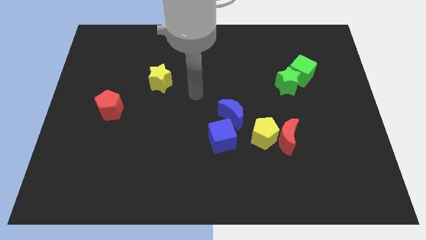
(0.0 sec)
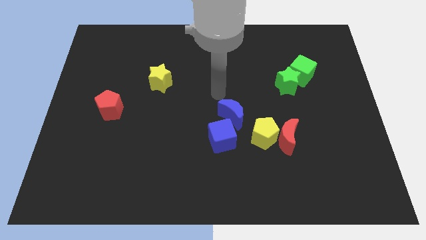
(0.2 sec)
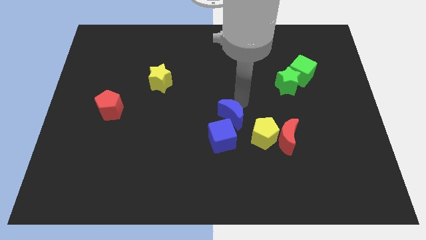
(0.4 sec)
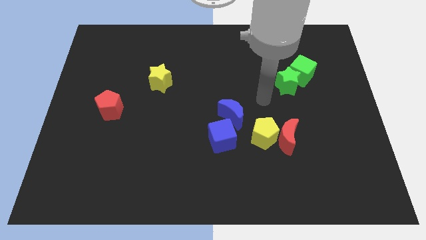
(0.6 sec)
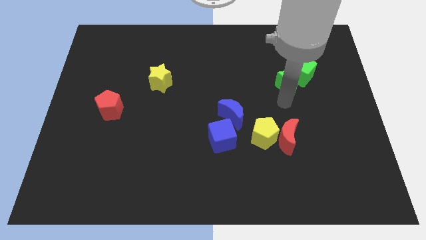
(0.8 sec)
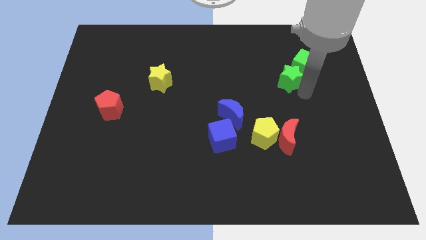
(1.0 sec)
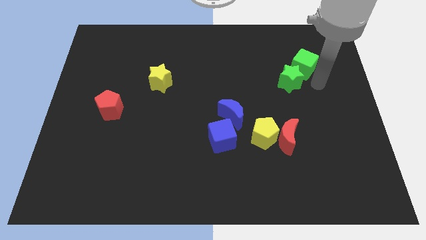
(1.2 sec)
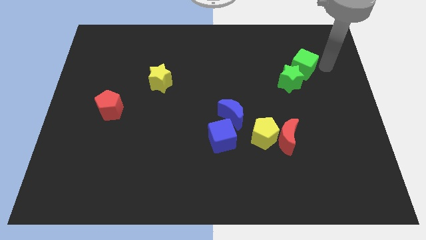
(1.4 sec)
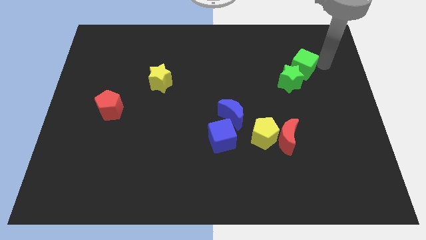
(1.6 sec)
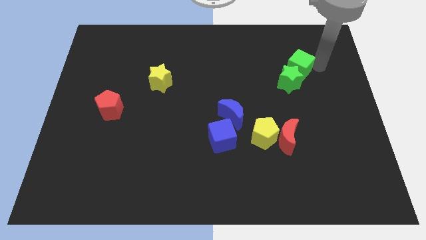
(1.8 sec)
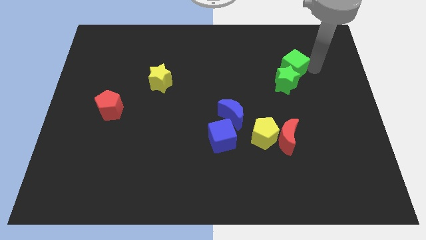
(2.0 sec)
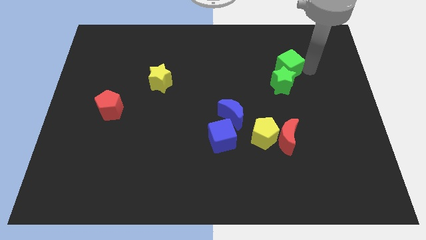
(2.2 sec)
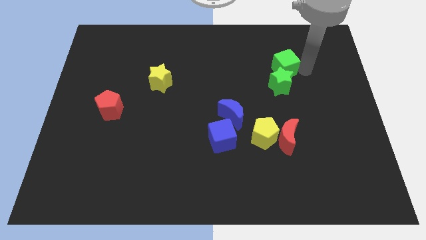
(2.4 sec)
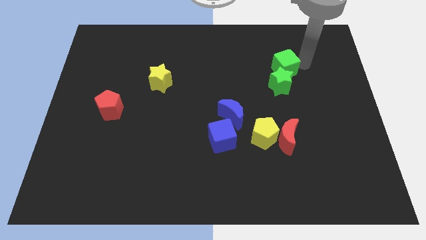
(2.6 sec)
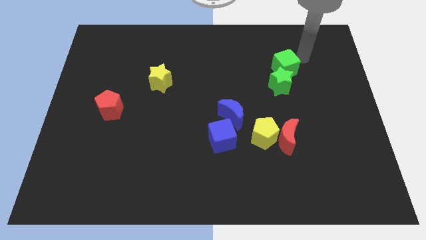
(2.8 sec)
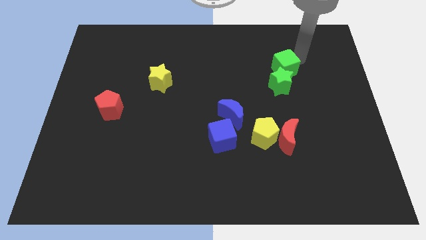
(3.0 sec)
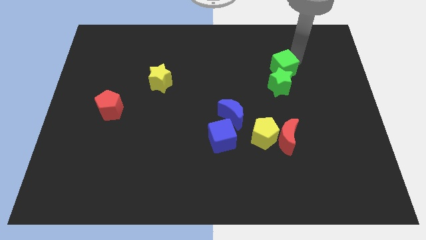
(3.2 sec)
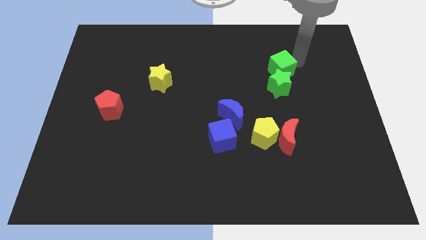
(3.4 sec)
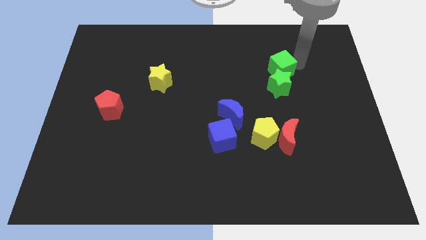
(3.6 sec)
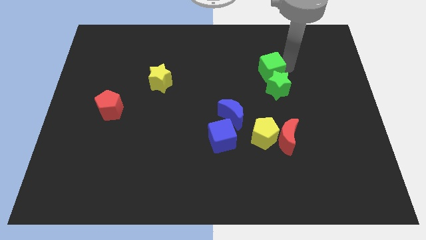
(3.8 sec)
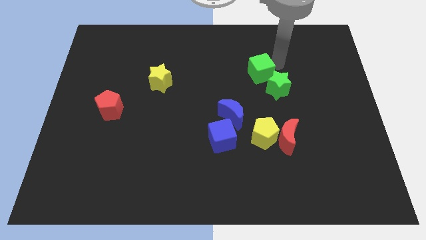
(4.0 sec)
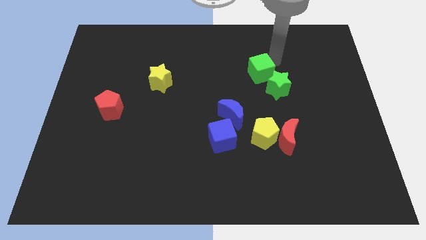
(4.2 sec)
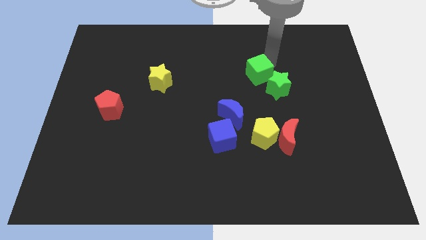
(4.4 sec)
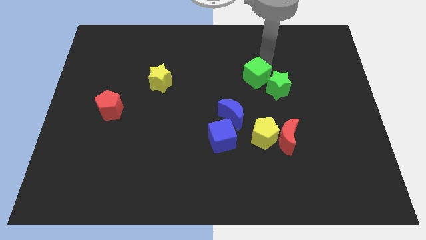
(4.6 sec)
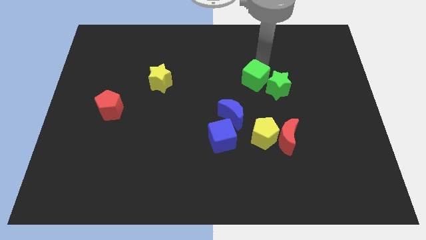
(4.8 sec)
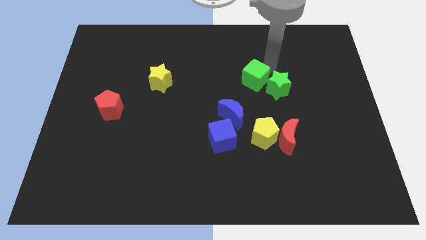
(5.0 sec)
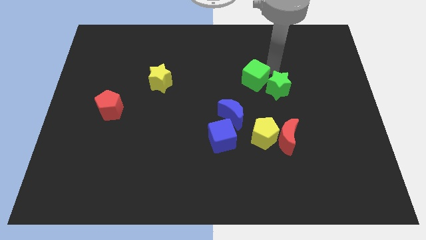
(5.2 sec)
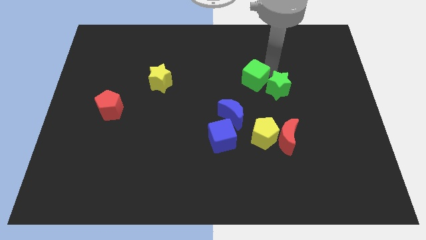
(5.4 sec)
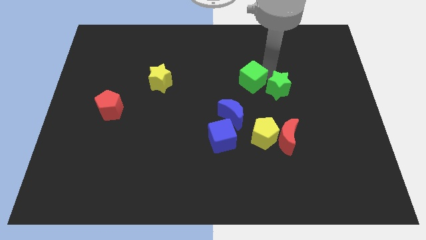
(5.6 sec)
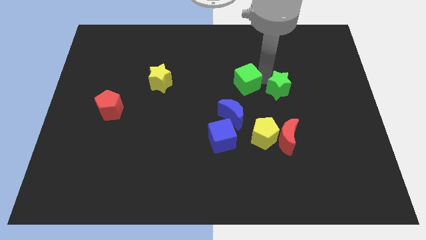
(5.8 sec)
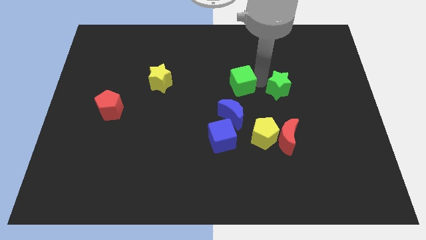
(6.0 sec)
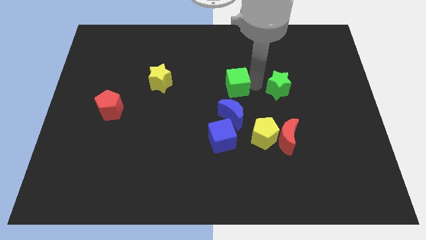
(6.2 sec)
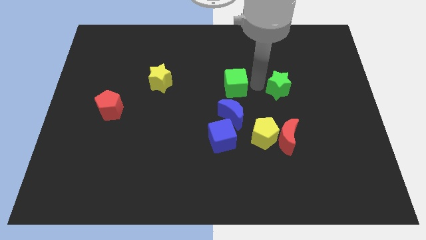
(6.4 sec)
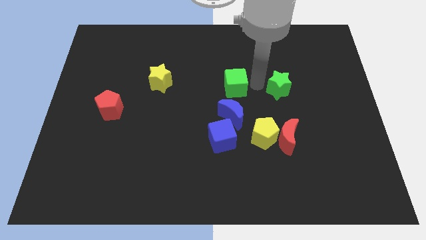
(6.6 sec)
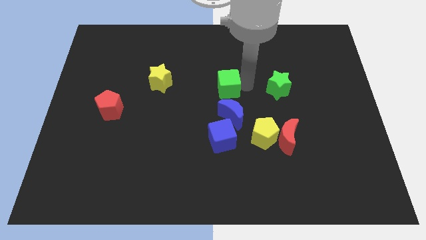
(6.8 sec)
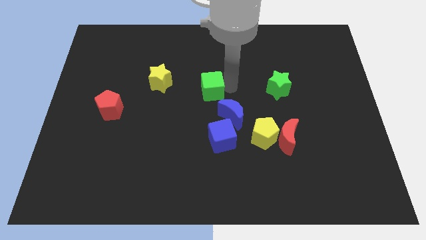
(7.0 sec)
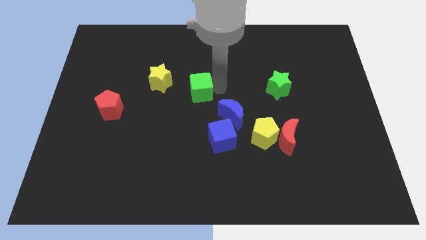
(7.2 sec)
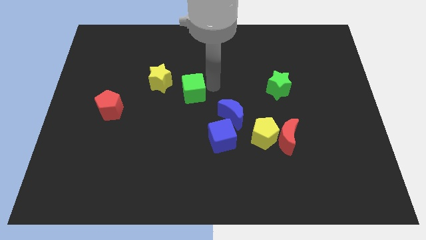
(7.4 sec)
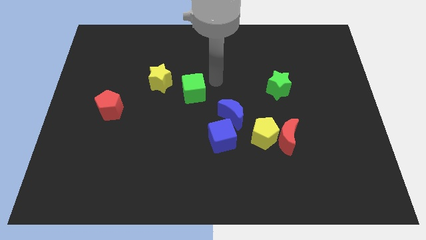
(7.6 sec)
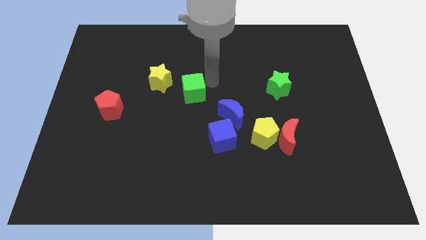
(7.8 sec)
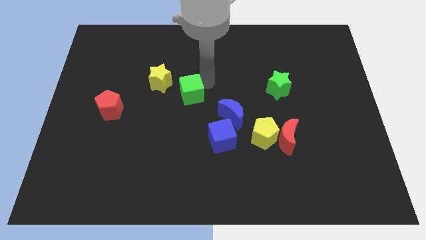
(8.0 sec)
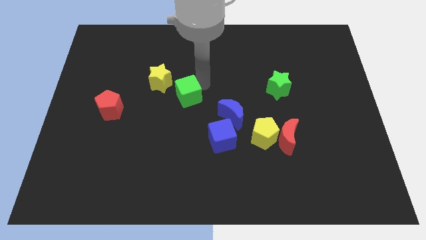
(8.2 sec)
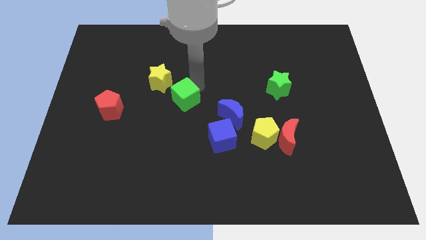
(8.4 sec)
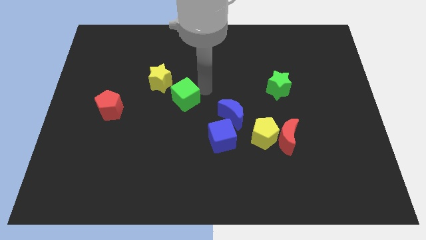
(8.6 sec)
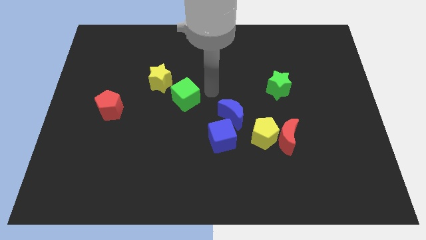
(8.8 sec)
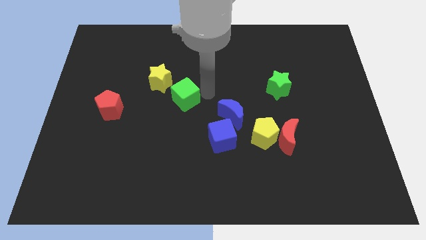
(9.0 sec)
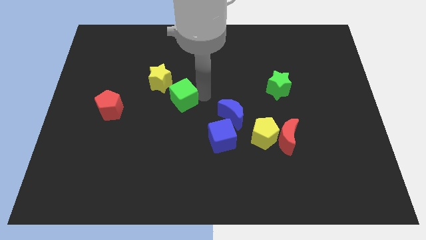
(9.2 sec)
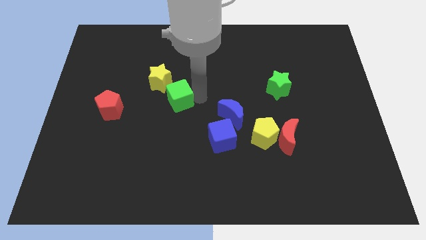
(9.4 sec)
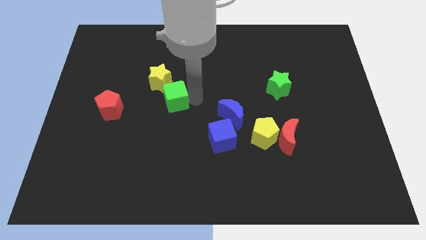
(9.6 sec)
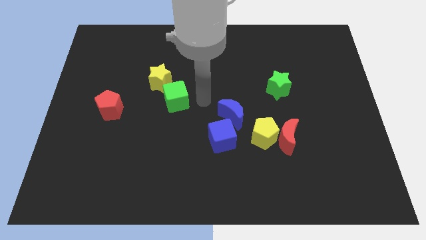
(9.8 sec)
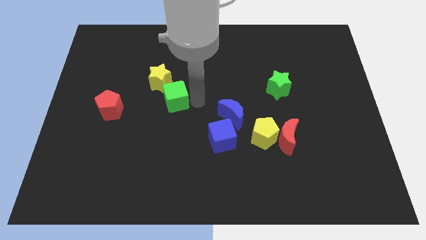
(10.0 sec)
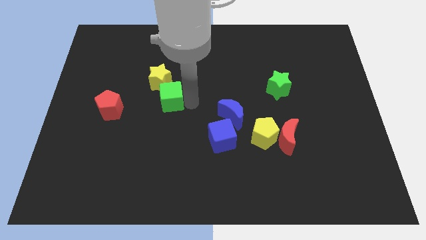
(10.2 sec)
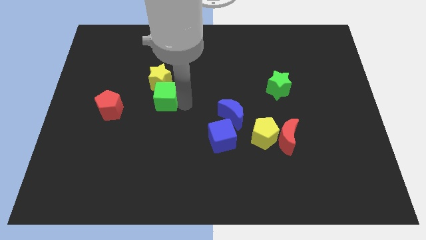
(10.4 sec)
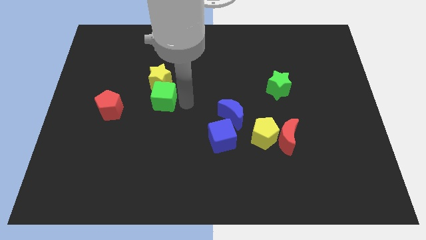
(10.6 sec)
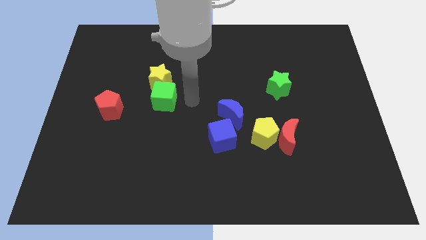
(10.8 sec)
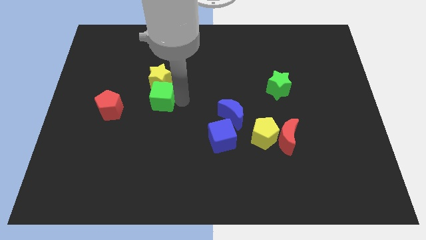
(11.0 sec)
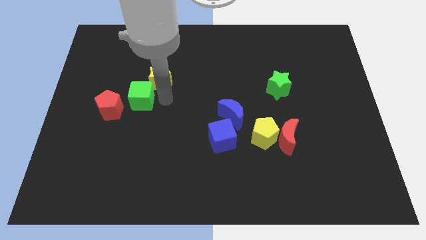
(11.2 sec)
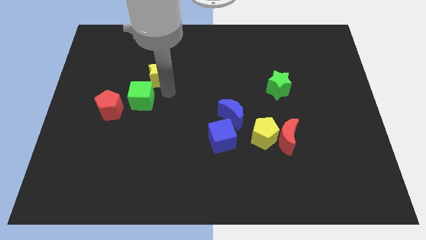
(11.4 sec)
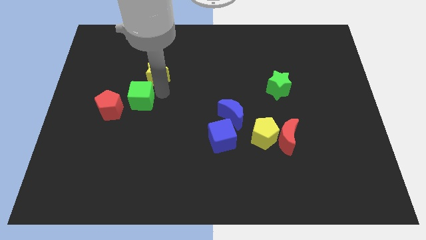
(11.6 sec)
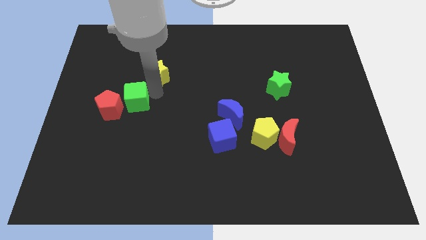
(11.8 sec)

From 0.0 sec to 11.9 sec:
push the green cube towards the red pentagon

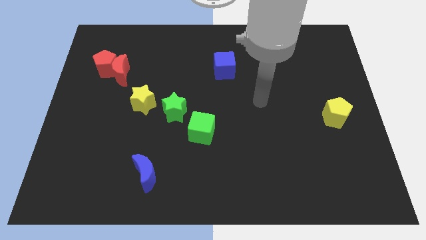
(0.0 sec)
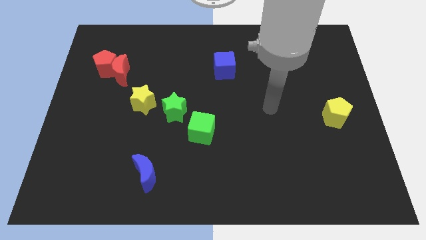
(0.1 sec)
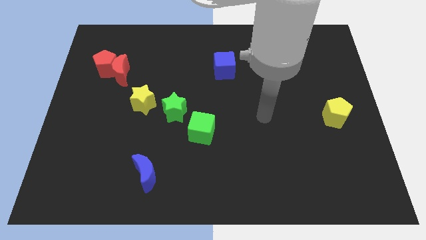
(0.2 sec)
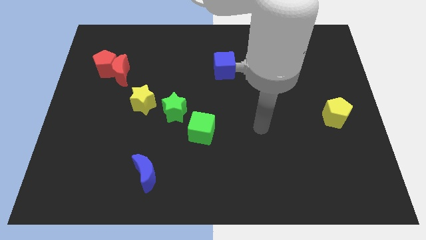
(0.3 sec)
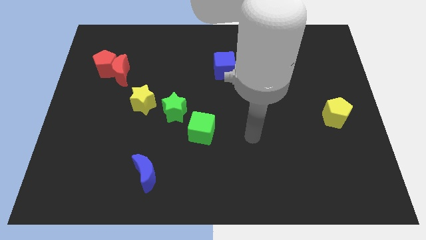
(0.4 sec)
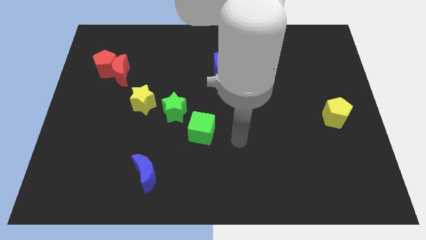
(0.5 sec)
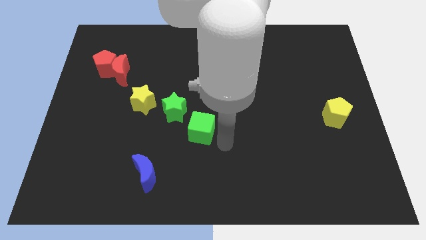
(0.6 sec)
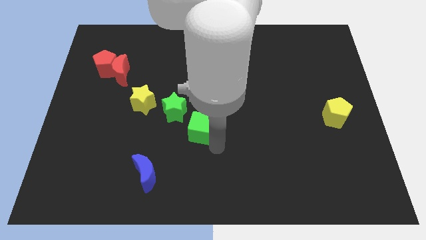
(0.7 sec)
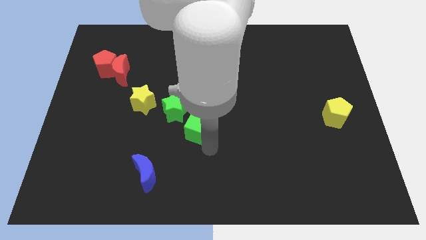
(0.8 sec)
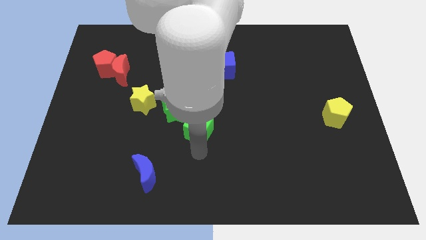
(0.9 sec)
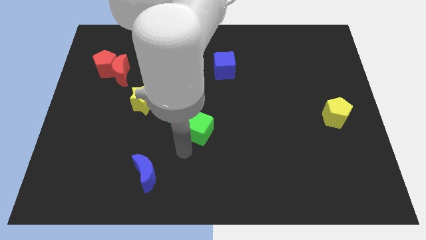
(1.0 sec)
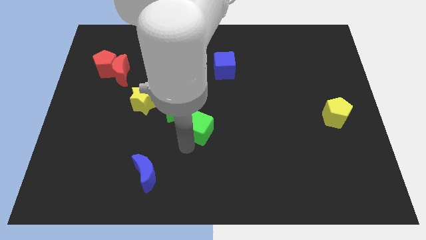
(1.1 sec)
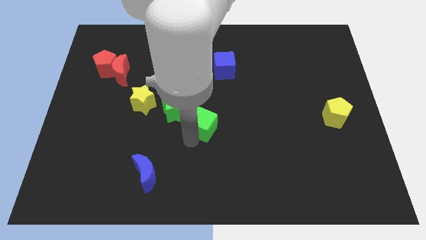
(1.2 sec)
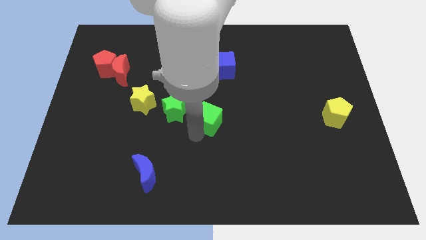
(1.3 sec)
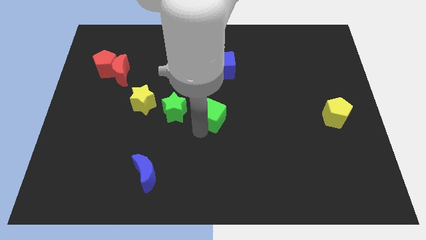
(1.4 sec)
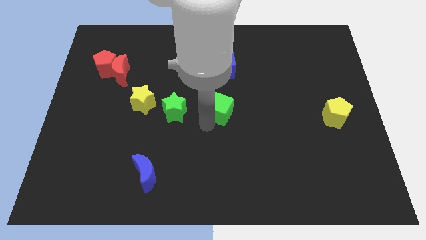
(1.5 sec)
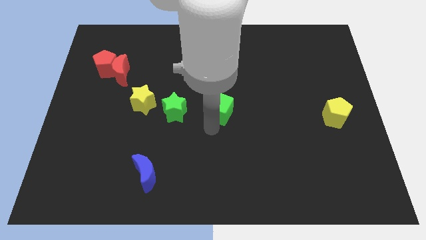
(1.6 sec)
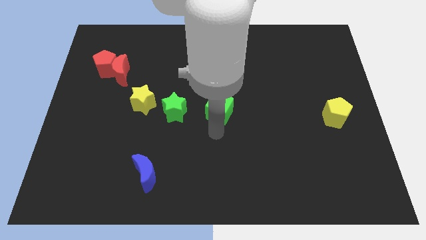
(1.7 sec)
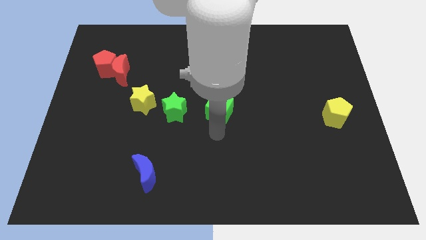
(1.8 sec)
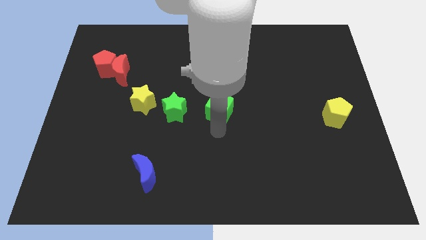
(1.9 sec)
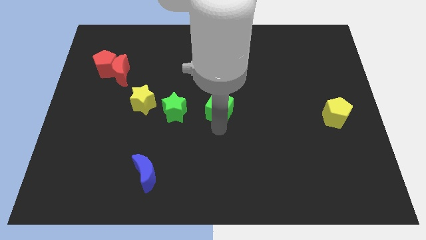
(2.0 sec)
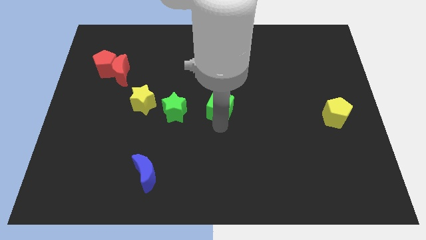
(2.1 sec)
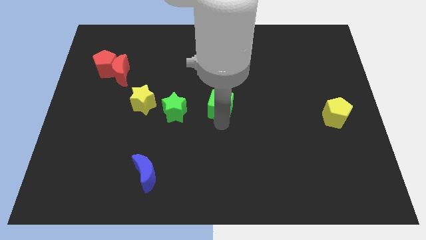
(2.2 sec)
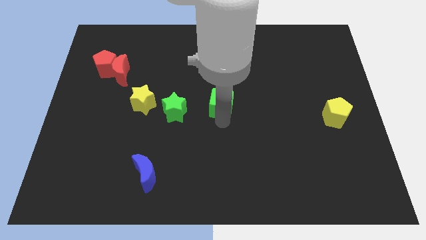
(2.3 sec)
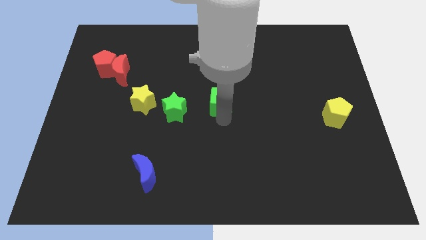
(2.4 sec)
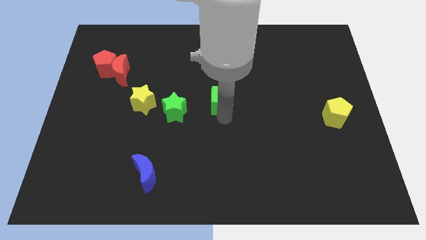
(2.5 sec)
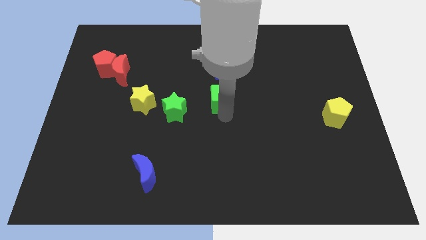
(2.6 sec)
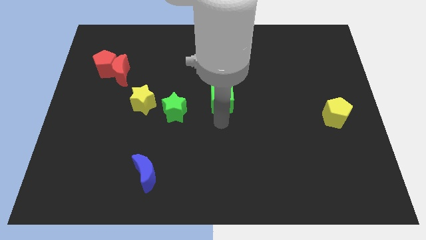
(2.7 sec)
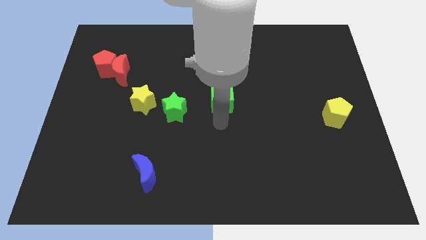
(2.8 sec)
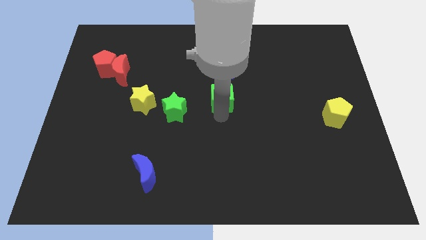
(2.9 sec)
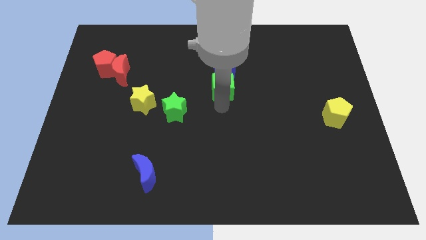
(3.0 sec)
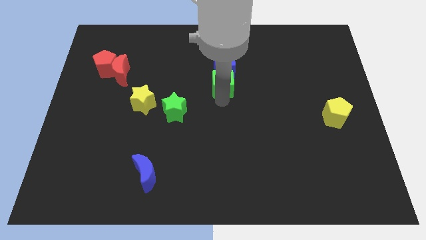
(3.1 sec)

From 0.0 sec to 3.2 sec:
put the green cube to the blue cube
